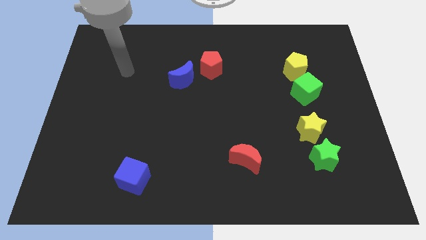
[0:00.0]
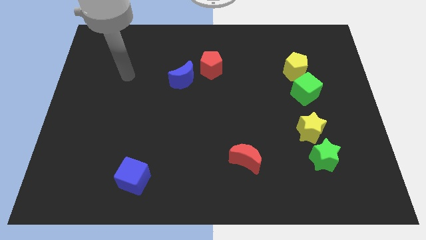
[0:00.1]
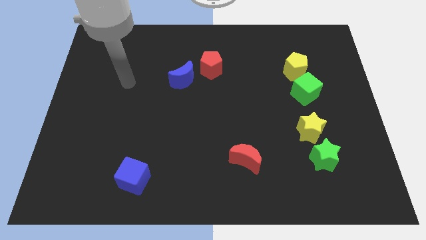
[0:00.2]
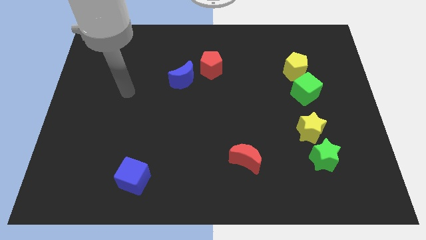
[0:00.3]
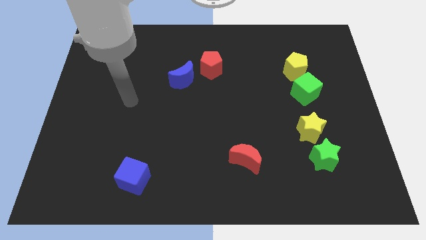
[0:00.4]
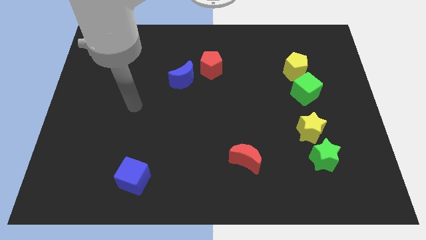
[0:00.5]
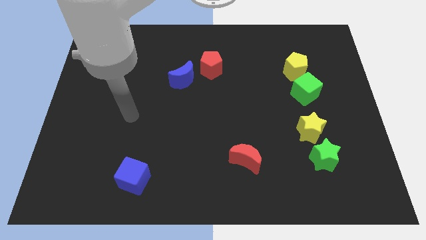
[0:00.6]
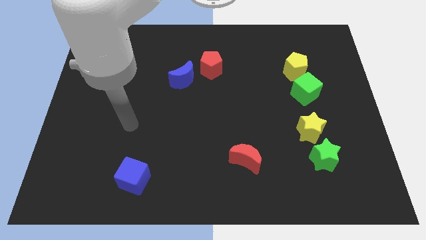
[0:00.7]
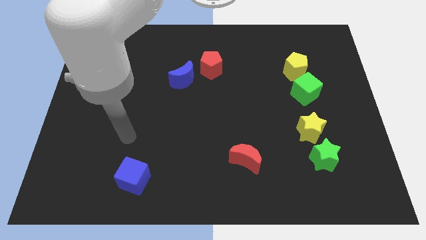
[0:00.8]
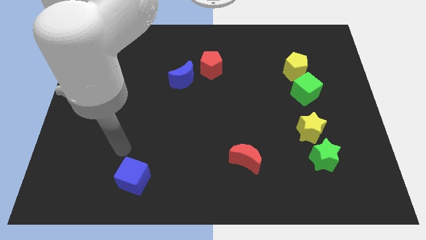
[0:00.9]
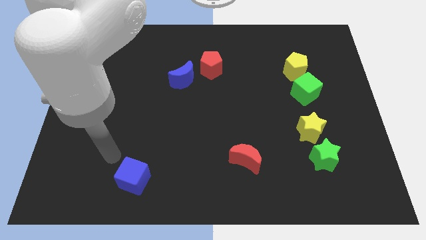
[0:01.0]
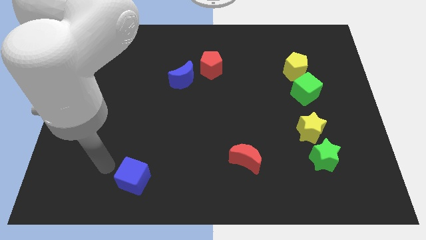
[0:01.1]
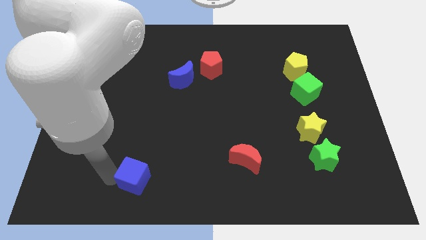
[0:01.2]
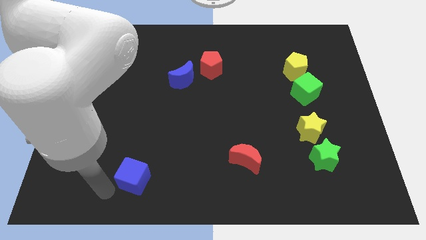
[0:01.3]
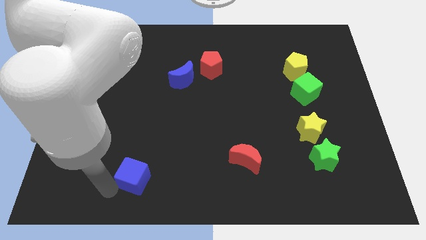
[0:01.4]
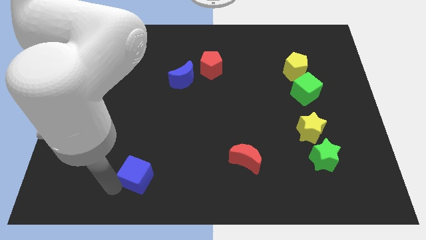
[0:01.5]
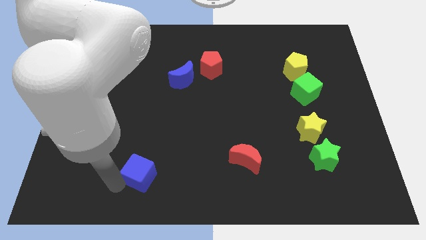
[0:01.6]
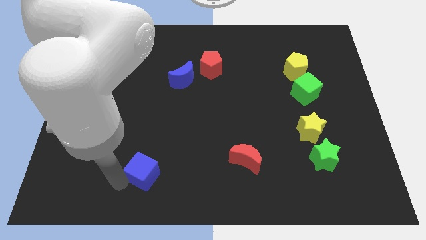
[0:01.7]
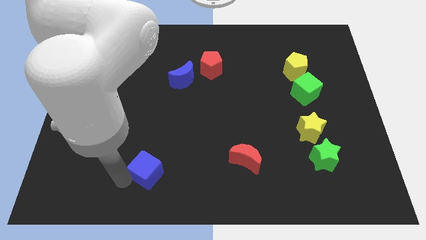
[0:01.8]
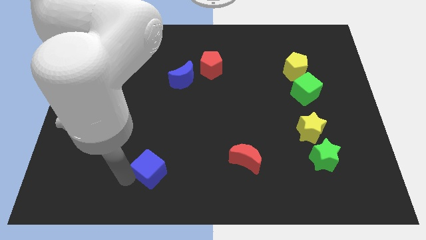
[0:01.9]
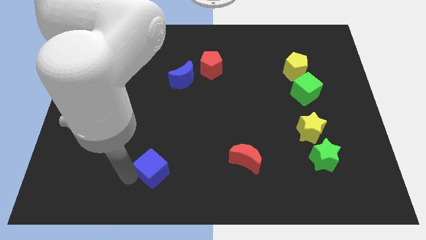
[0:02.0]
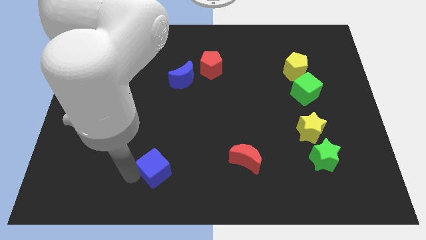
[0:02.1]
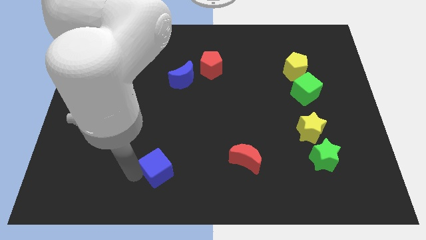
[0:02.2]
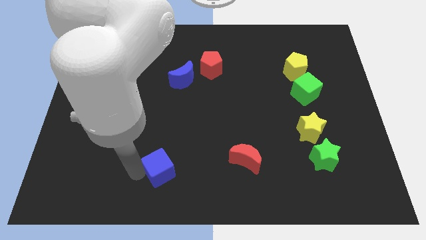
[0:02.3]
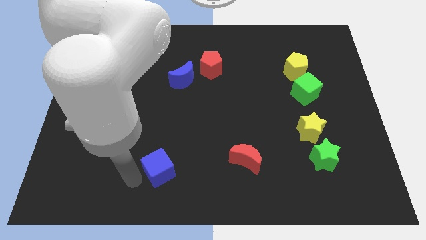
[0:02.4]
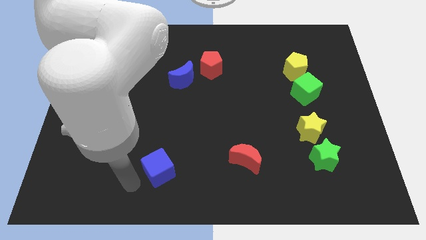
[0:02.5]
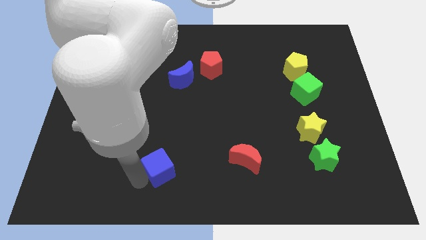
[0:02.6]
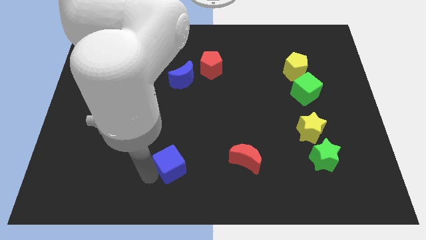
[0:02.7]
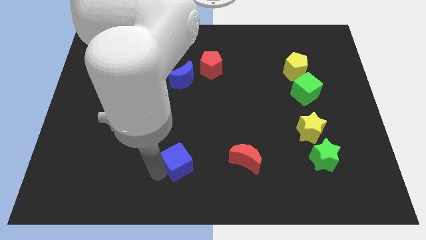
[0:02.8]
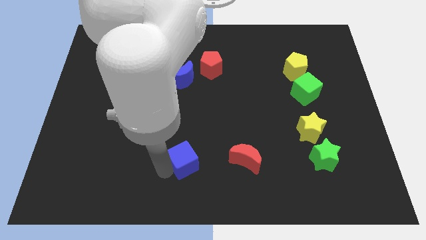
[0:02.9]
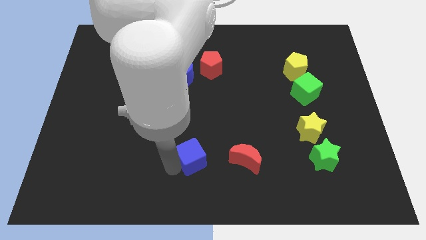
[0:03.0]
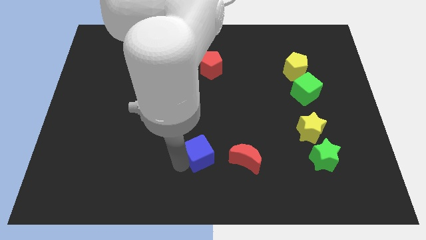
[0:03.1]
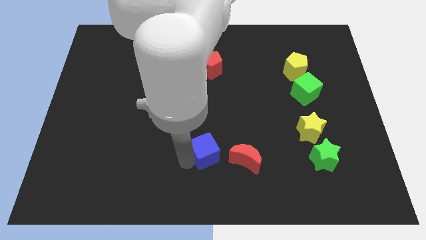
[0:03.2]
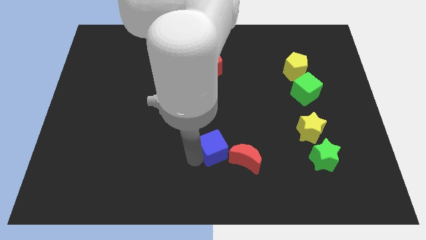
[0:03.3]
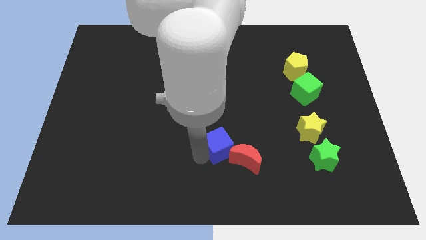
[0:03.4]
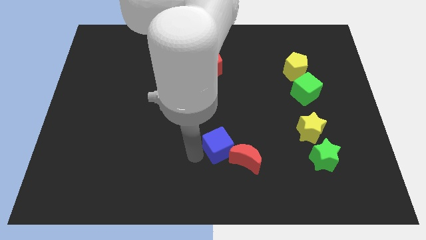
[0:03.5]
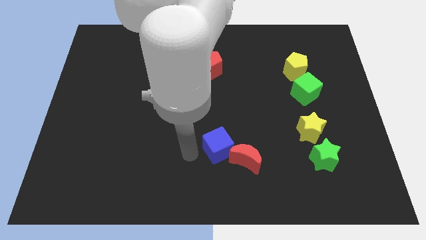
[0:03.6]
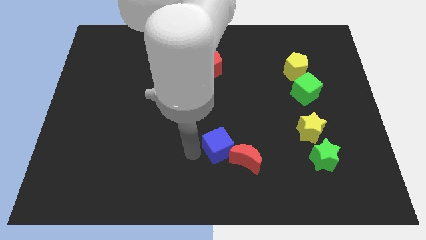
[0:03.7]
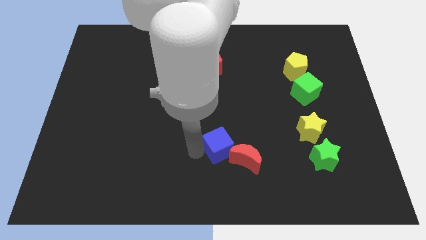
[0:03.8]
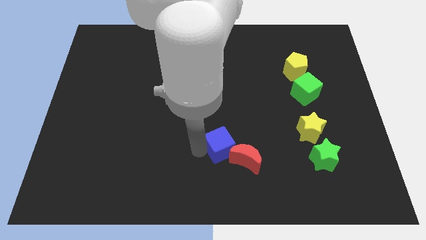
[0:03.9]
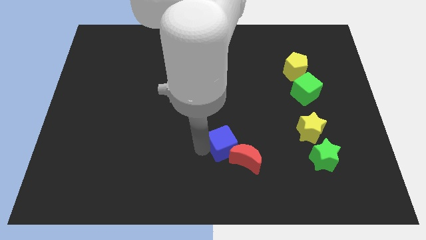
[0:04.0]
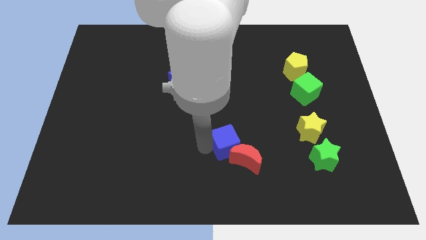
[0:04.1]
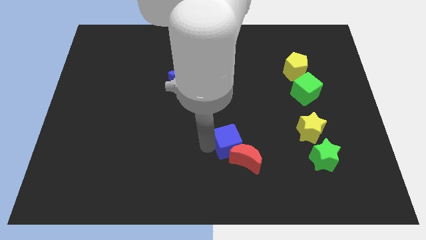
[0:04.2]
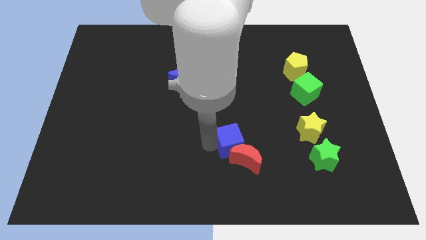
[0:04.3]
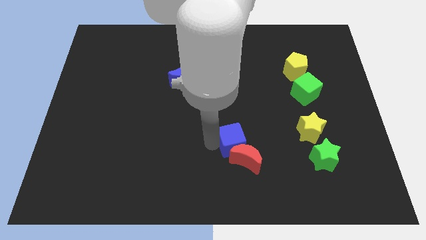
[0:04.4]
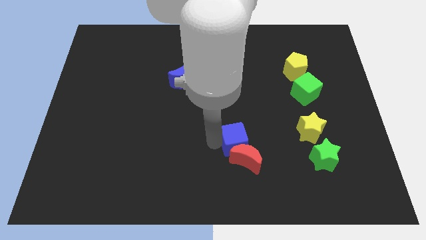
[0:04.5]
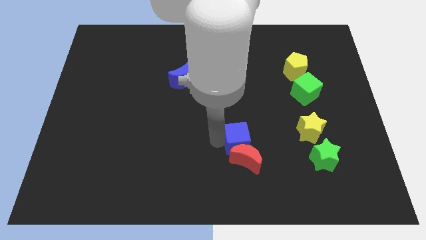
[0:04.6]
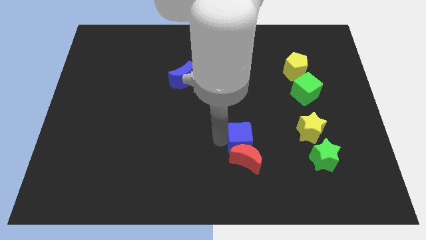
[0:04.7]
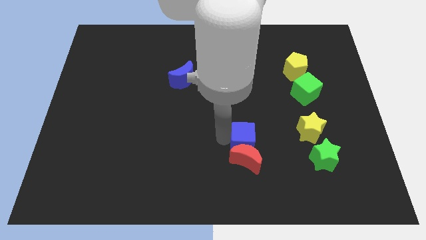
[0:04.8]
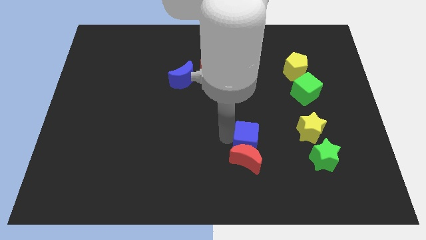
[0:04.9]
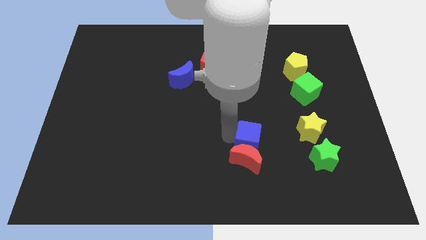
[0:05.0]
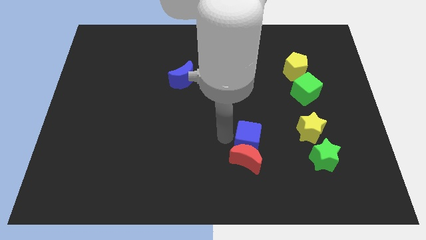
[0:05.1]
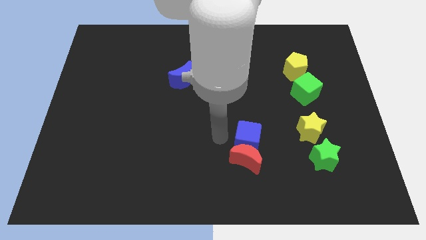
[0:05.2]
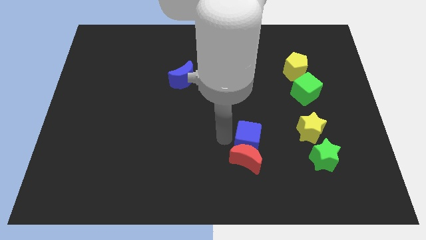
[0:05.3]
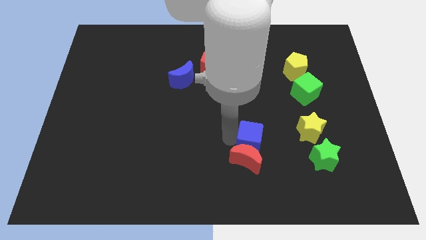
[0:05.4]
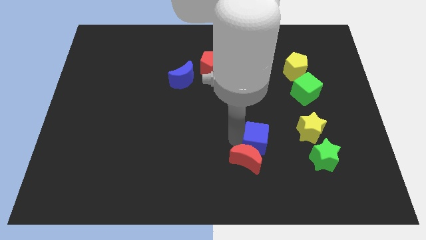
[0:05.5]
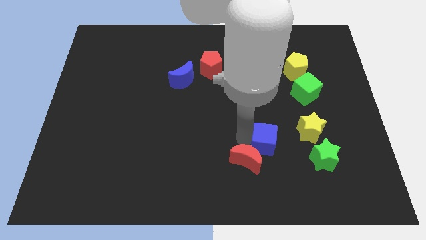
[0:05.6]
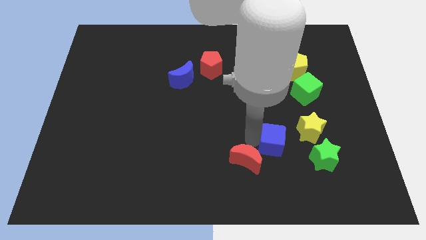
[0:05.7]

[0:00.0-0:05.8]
put the blue cube to the bottom left side of the yellow star
